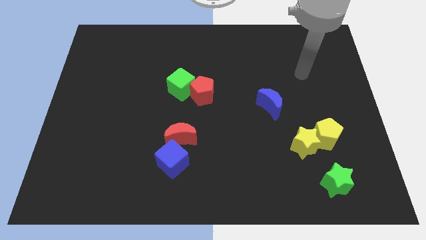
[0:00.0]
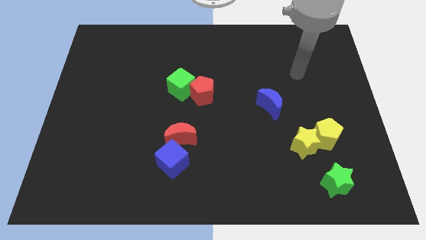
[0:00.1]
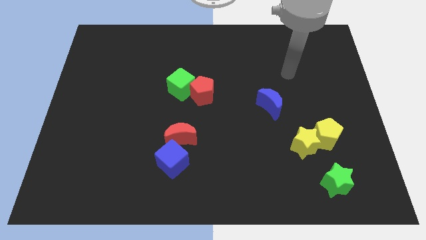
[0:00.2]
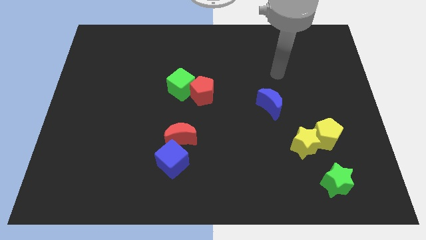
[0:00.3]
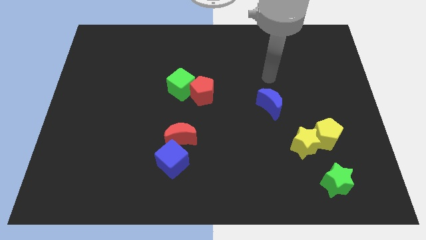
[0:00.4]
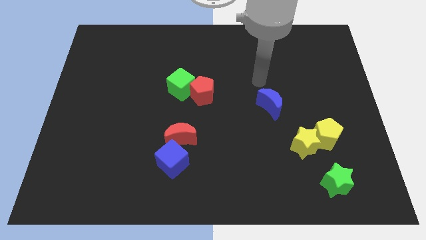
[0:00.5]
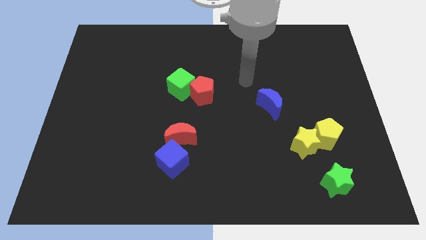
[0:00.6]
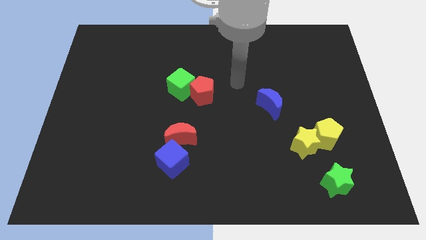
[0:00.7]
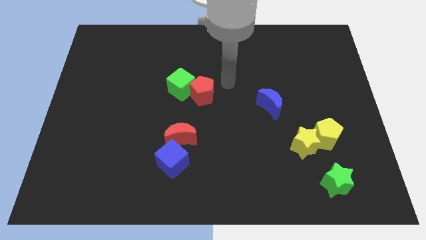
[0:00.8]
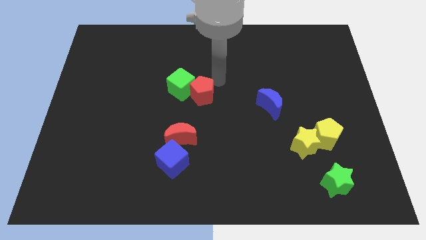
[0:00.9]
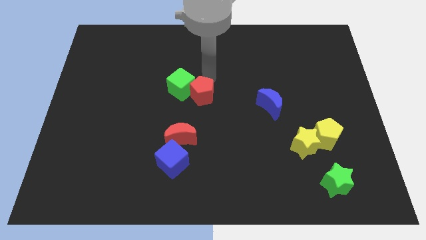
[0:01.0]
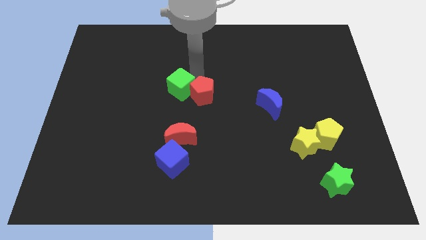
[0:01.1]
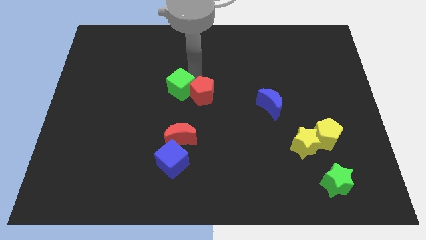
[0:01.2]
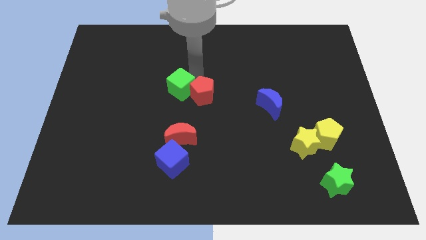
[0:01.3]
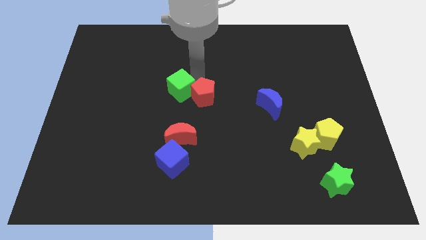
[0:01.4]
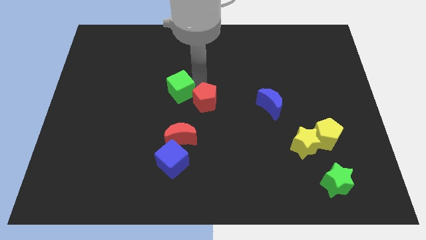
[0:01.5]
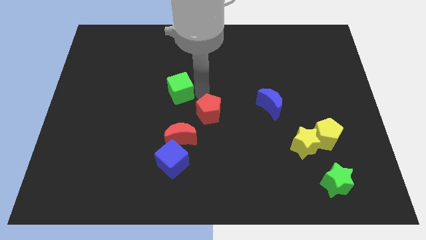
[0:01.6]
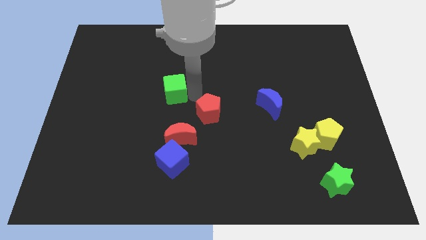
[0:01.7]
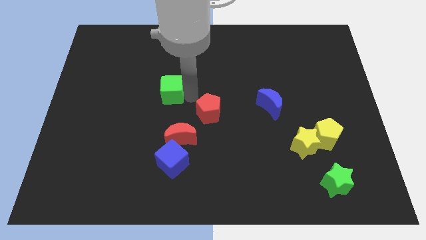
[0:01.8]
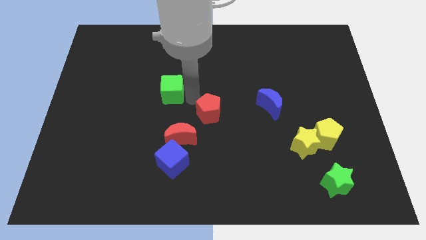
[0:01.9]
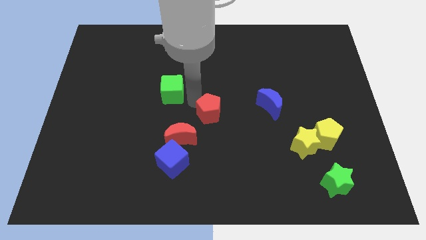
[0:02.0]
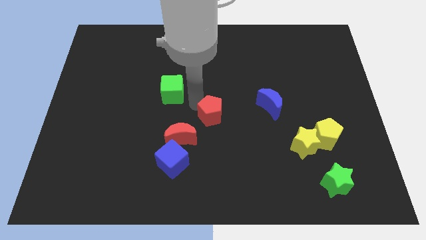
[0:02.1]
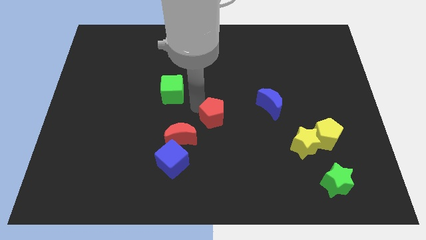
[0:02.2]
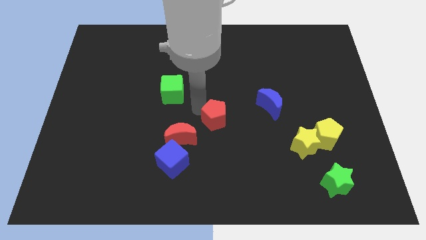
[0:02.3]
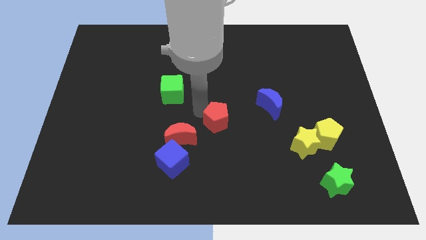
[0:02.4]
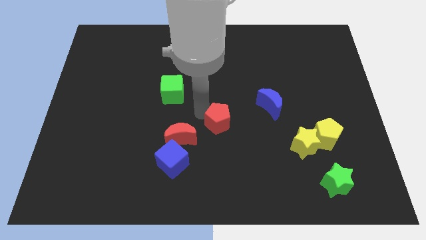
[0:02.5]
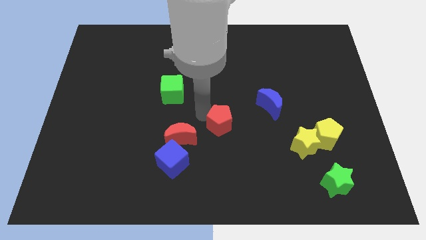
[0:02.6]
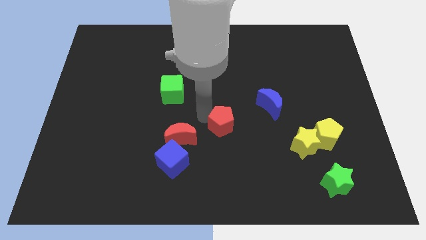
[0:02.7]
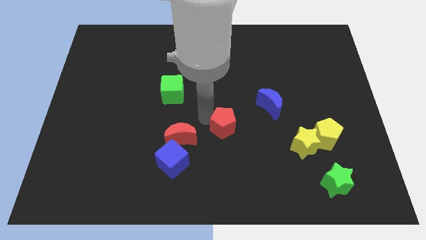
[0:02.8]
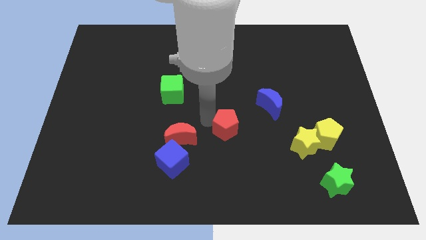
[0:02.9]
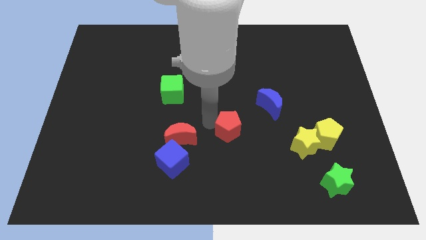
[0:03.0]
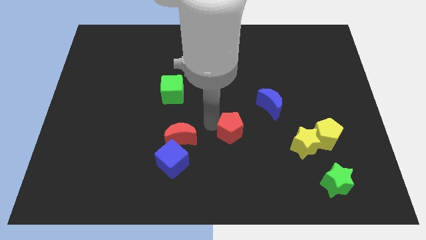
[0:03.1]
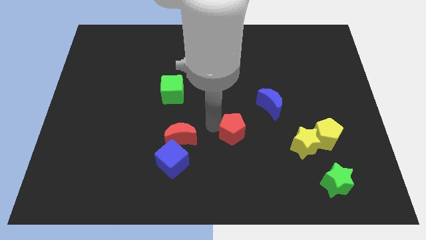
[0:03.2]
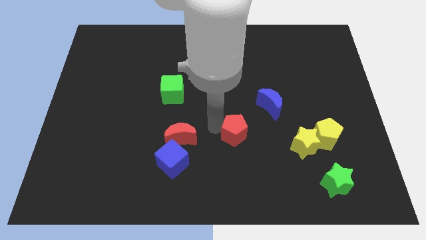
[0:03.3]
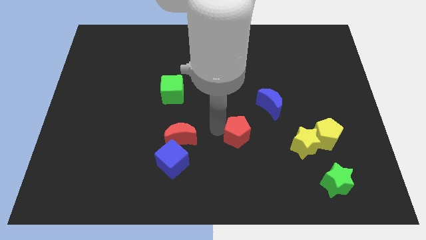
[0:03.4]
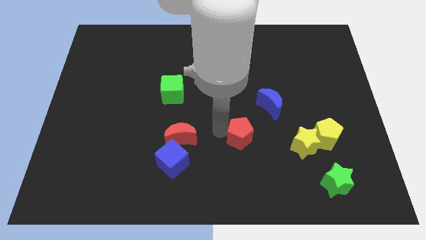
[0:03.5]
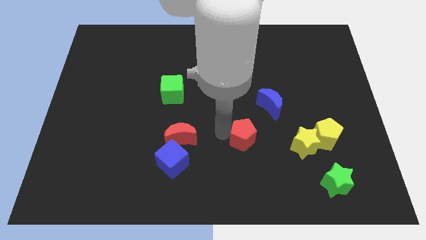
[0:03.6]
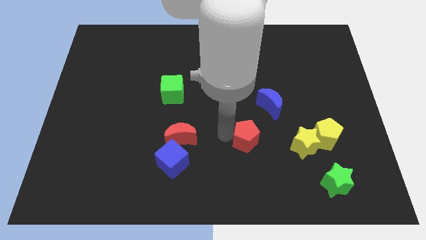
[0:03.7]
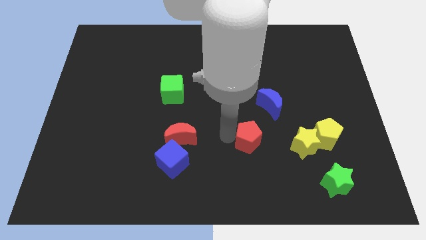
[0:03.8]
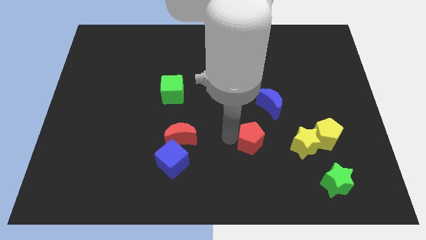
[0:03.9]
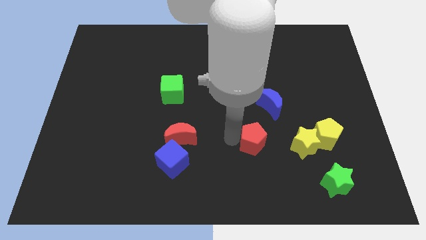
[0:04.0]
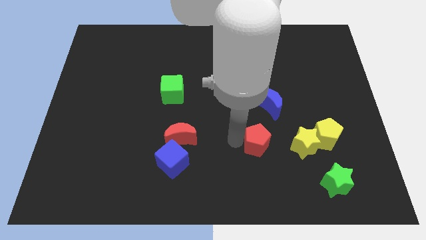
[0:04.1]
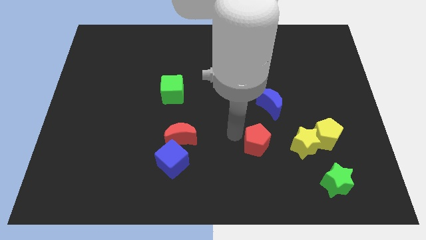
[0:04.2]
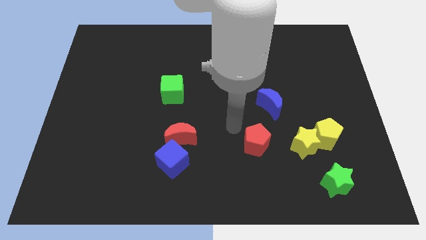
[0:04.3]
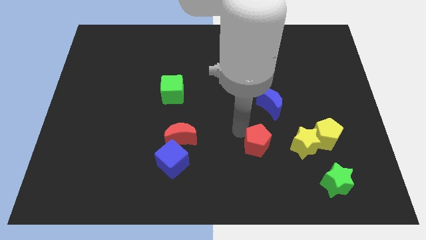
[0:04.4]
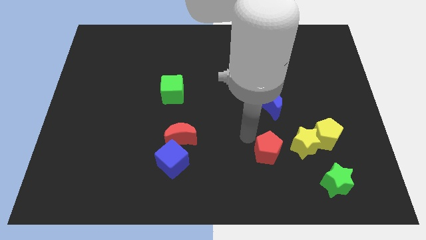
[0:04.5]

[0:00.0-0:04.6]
push the red pentagon diagonally down and right

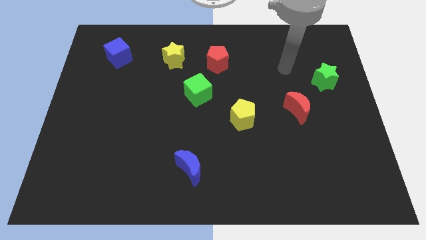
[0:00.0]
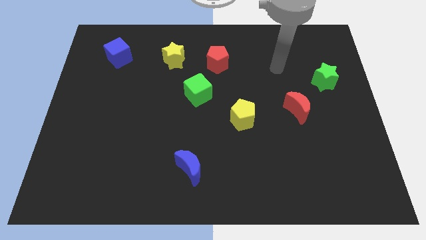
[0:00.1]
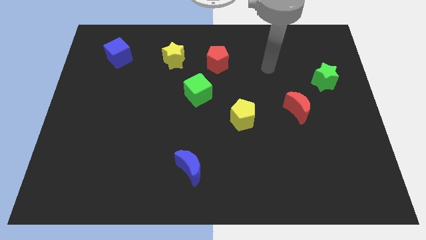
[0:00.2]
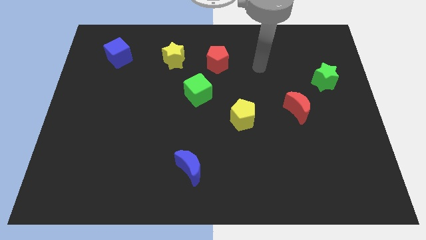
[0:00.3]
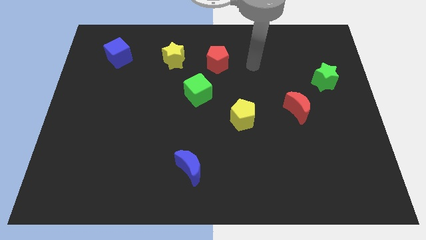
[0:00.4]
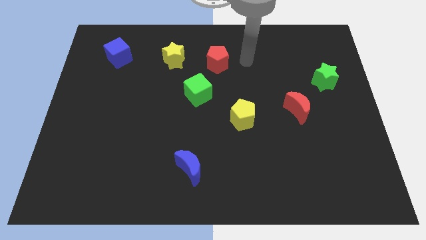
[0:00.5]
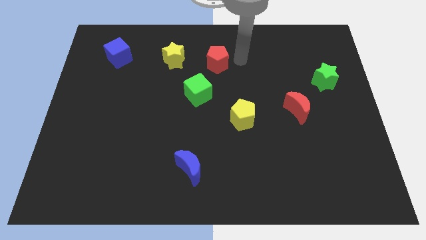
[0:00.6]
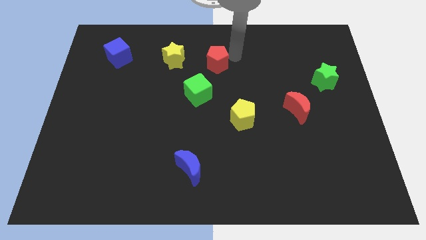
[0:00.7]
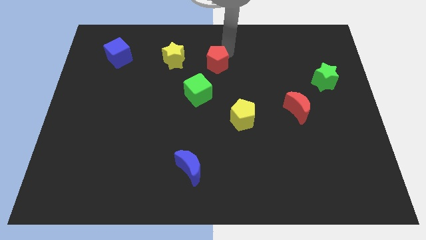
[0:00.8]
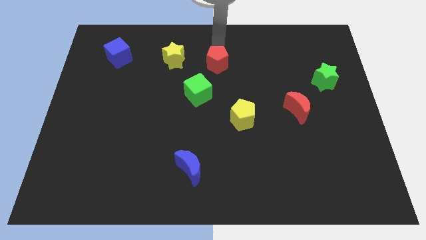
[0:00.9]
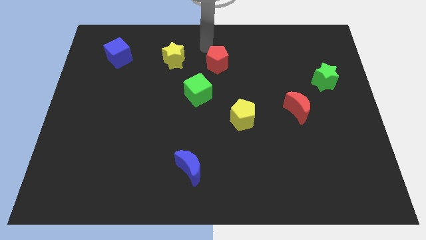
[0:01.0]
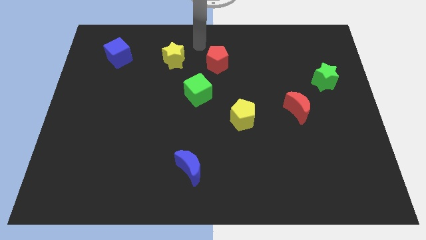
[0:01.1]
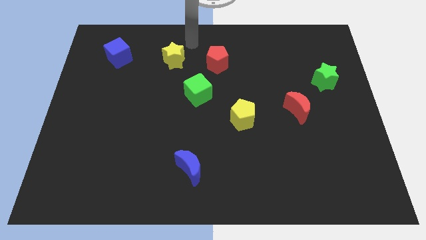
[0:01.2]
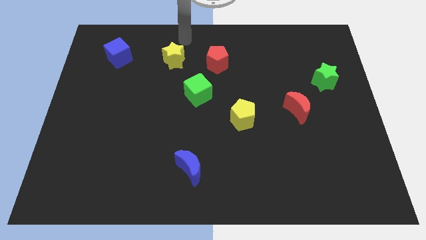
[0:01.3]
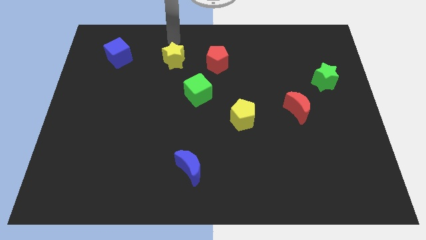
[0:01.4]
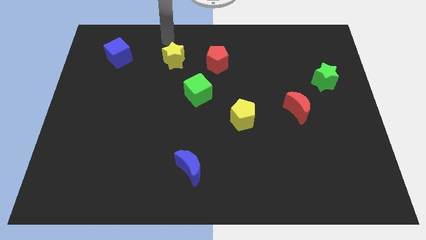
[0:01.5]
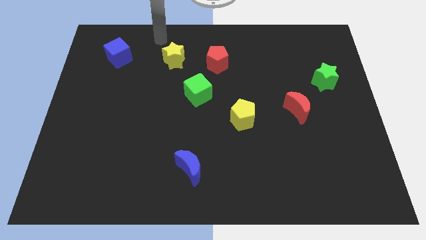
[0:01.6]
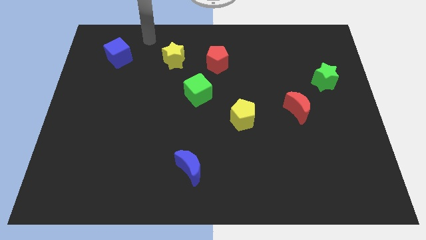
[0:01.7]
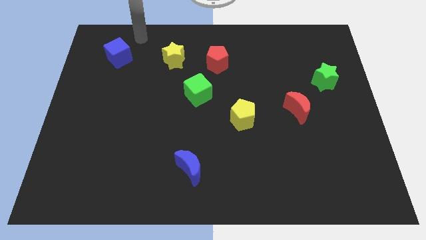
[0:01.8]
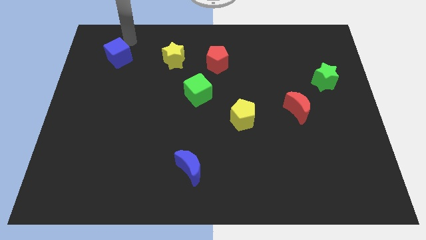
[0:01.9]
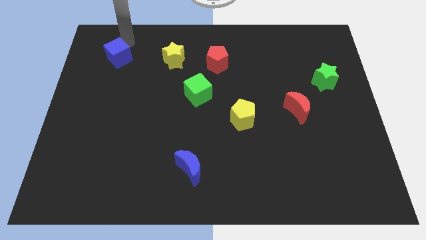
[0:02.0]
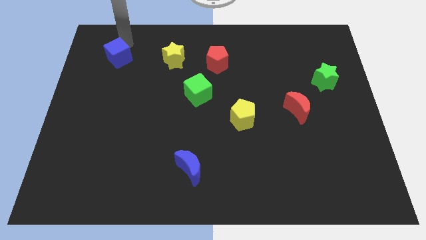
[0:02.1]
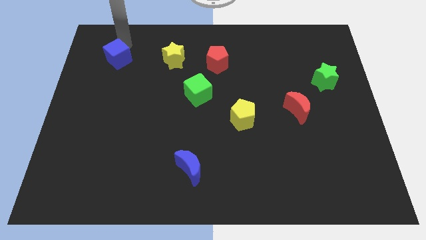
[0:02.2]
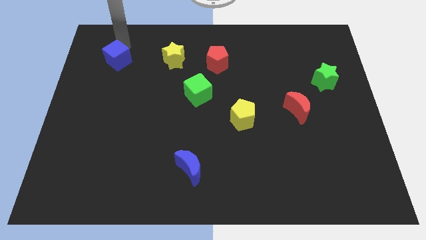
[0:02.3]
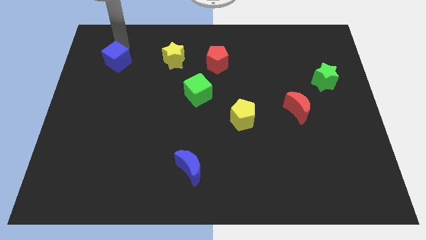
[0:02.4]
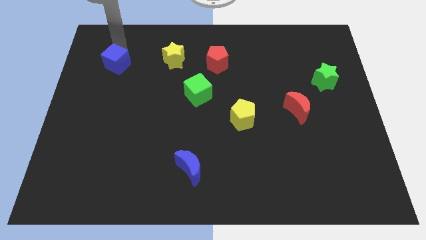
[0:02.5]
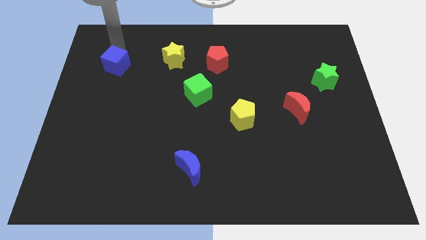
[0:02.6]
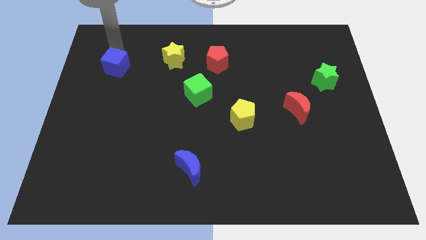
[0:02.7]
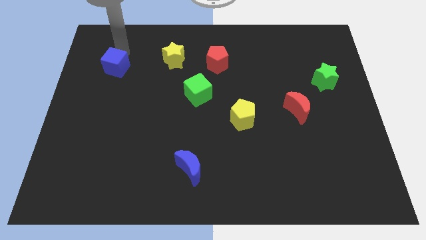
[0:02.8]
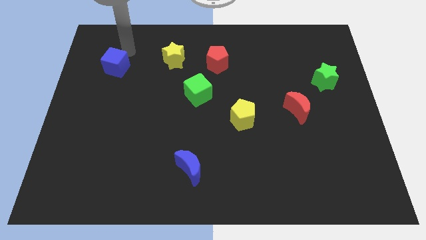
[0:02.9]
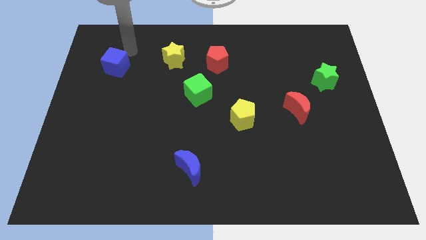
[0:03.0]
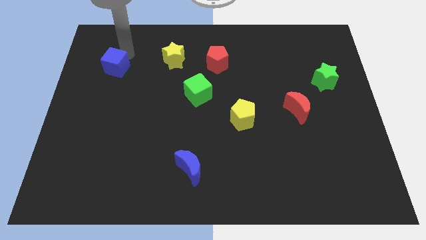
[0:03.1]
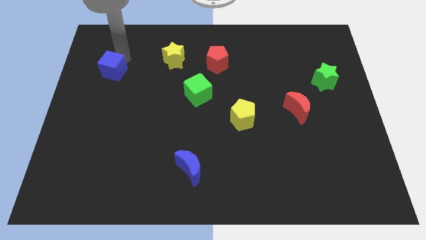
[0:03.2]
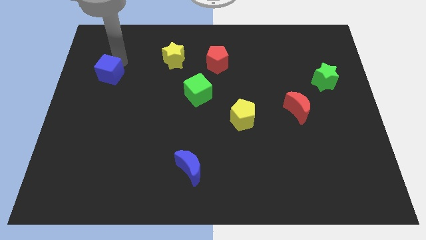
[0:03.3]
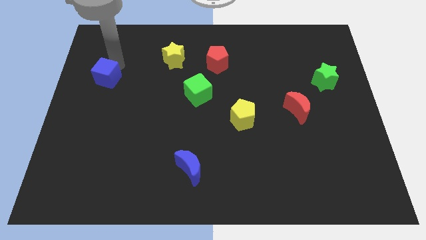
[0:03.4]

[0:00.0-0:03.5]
slightly push the blue cube down

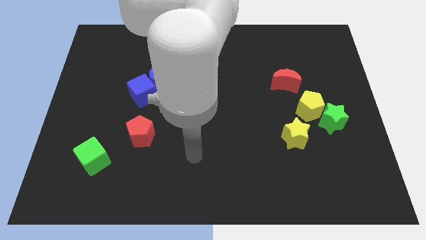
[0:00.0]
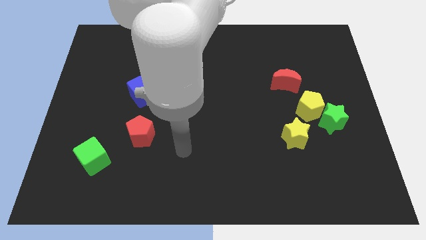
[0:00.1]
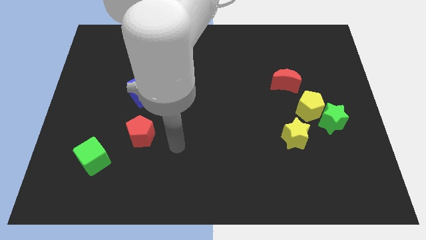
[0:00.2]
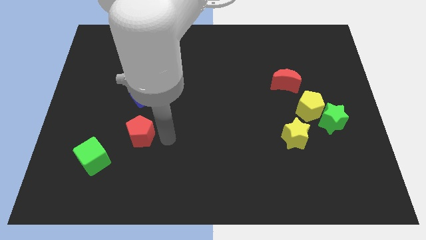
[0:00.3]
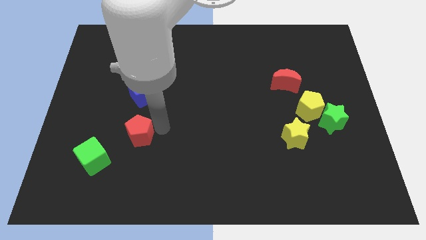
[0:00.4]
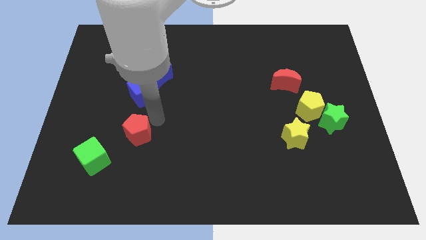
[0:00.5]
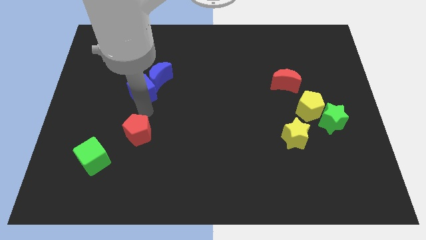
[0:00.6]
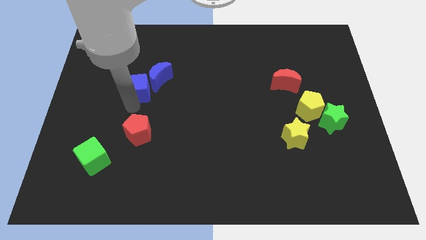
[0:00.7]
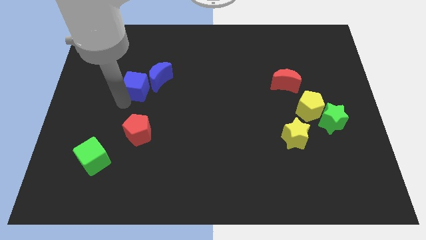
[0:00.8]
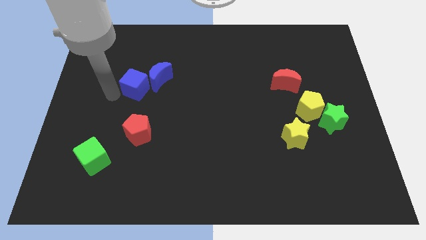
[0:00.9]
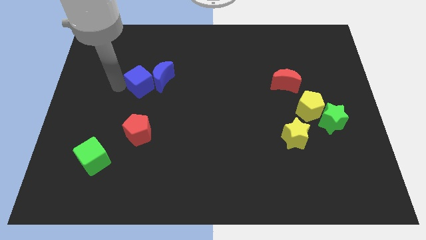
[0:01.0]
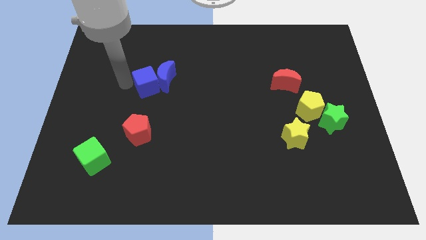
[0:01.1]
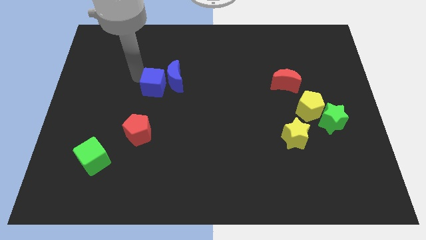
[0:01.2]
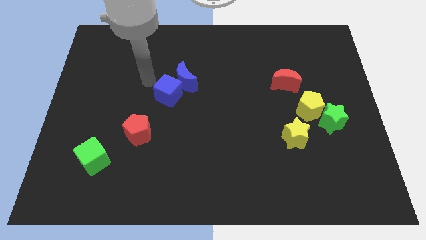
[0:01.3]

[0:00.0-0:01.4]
slide the blue moon a little bit to the right
